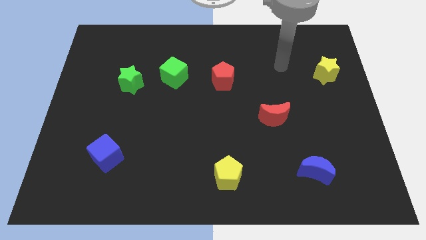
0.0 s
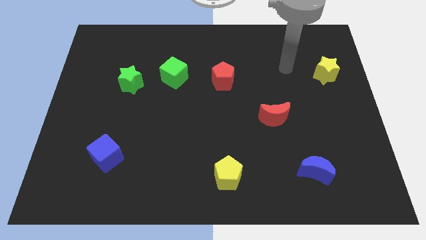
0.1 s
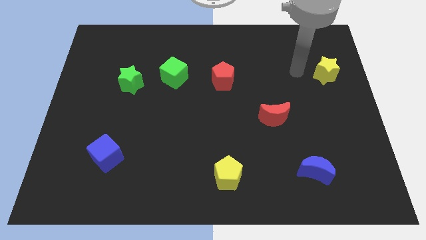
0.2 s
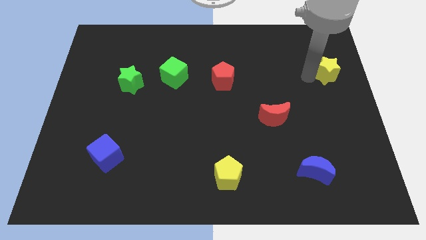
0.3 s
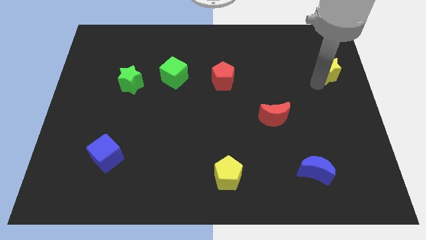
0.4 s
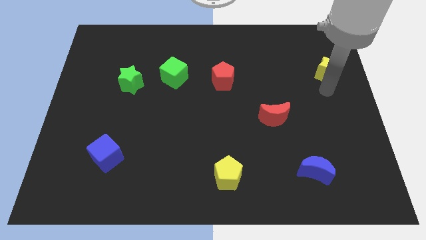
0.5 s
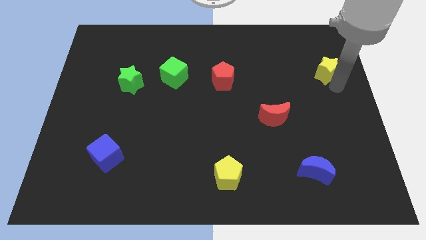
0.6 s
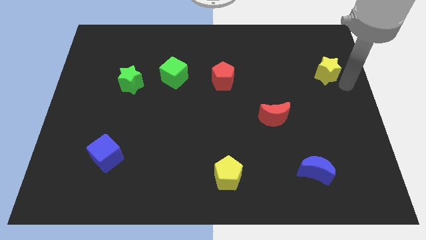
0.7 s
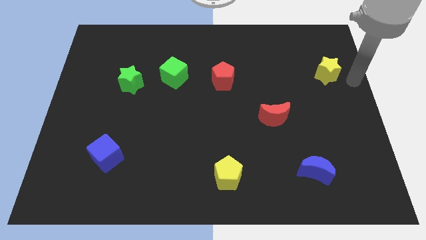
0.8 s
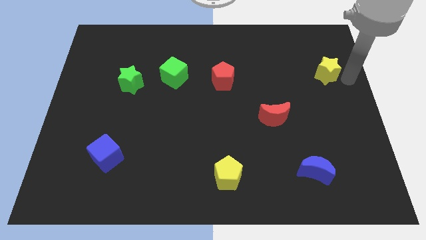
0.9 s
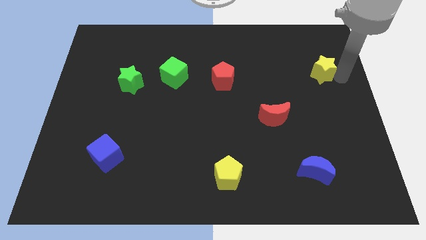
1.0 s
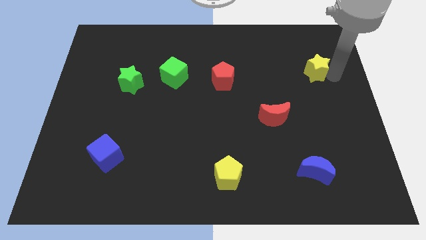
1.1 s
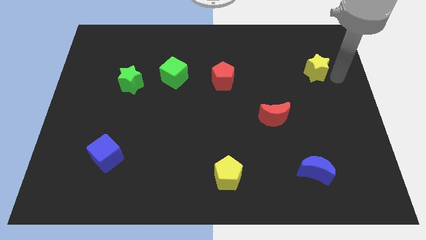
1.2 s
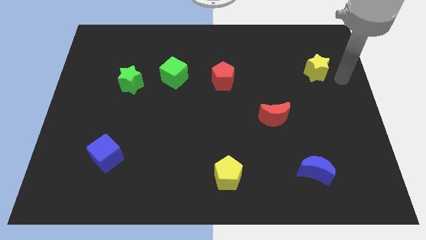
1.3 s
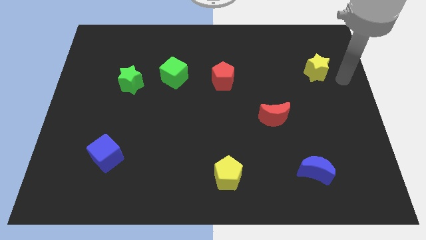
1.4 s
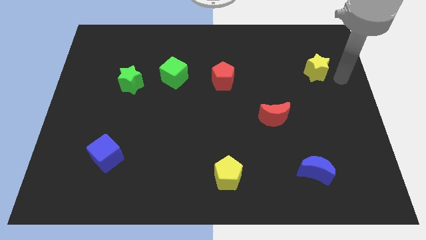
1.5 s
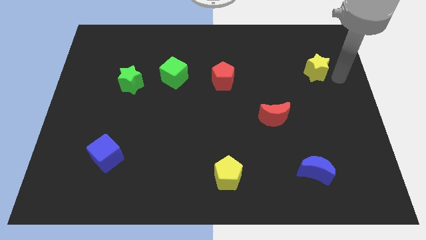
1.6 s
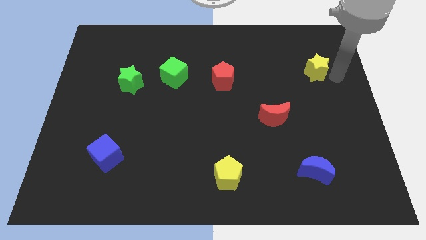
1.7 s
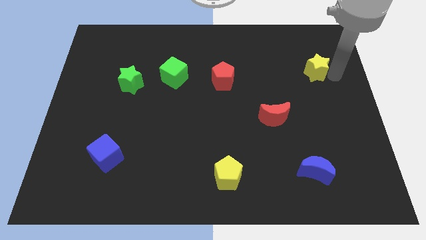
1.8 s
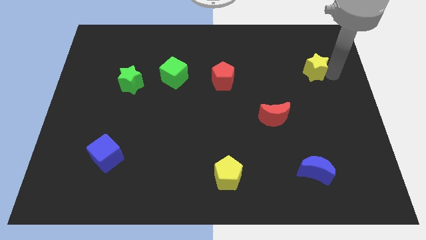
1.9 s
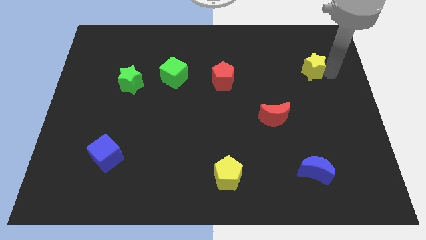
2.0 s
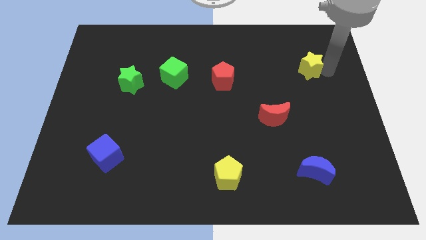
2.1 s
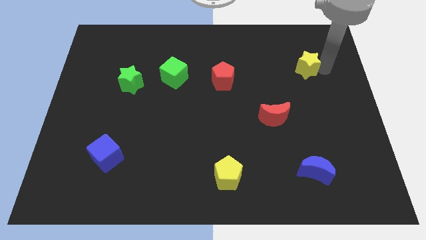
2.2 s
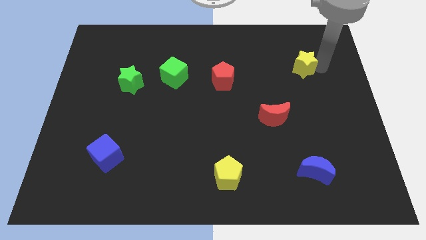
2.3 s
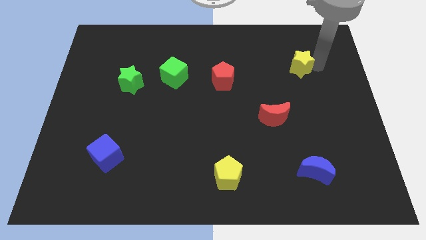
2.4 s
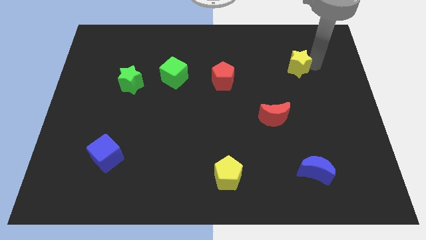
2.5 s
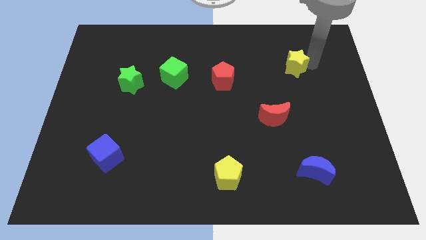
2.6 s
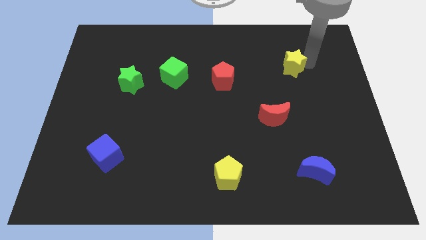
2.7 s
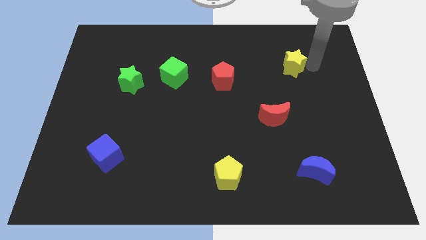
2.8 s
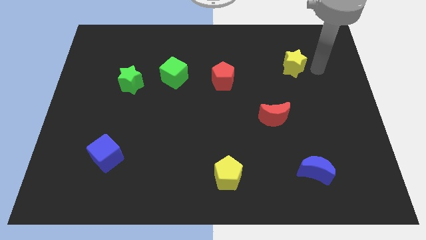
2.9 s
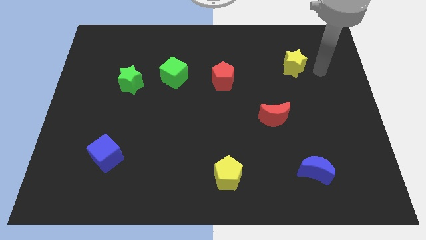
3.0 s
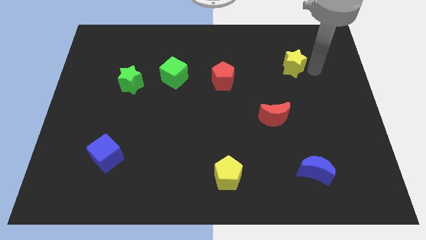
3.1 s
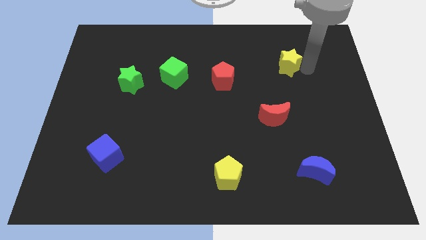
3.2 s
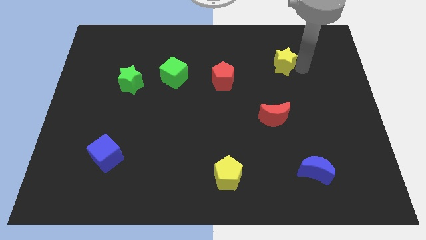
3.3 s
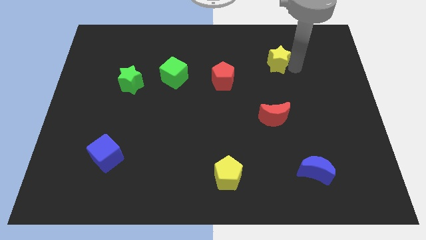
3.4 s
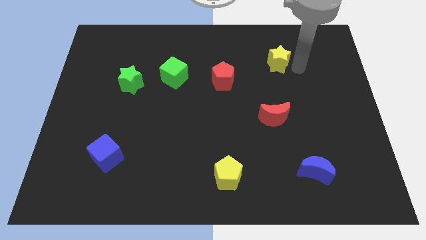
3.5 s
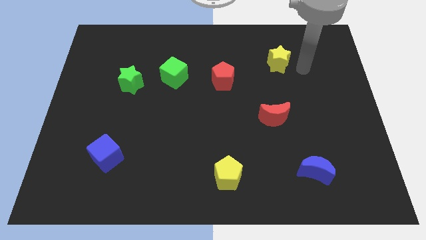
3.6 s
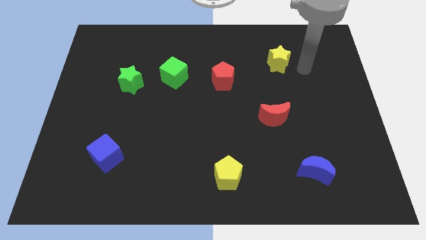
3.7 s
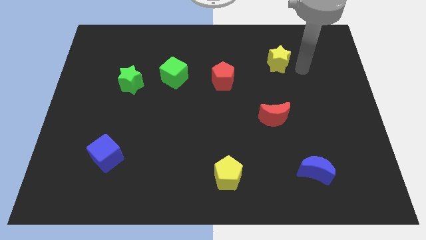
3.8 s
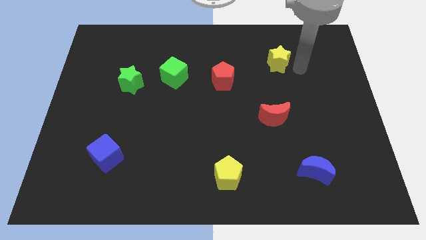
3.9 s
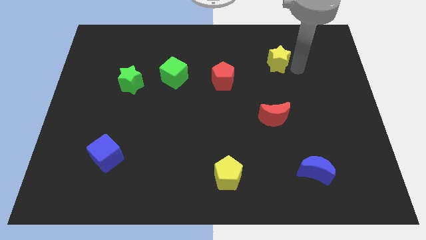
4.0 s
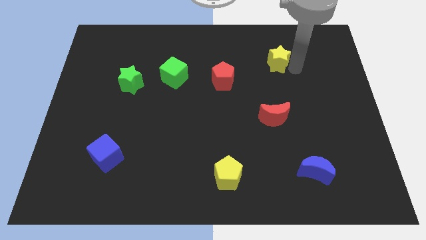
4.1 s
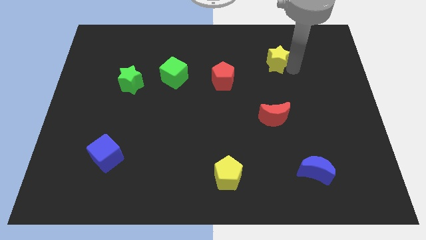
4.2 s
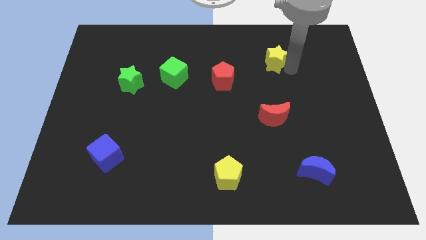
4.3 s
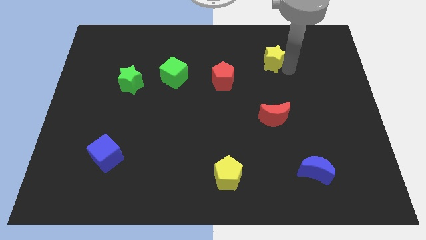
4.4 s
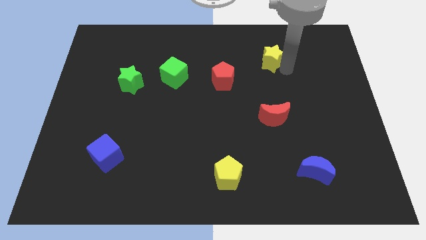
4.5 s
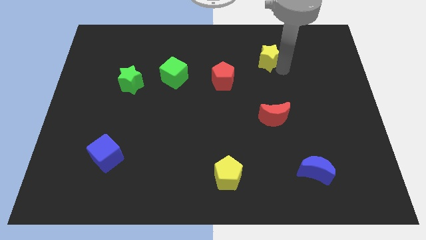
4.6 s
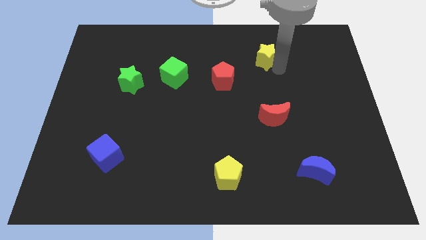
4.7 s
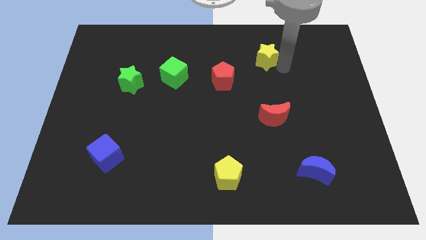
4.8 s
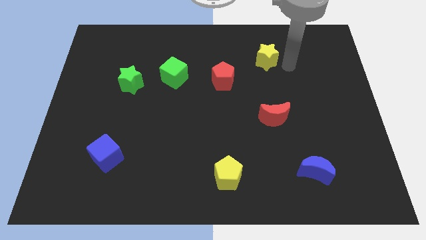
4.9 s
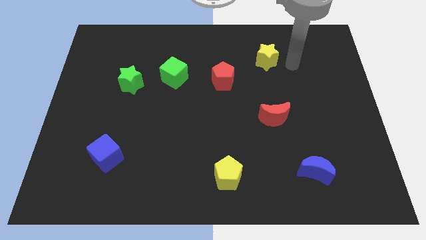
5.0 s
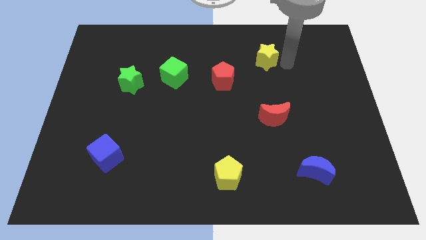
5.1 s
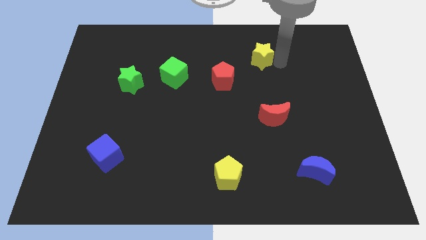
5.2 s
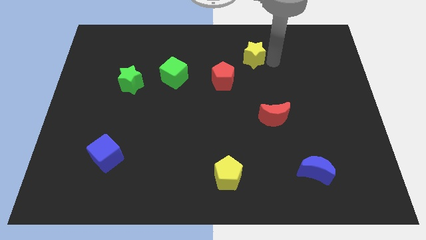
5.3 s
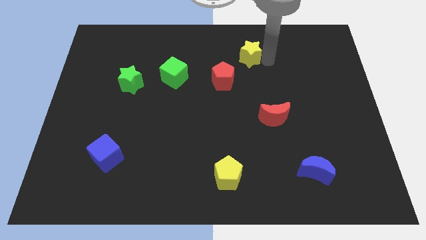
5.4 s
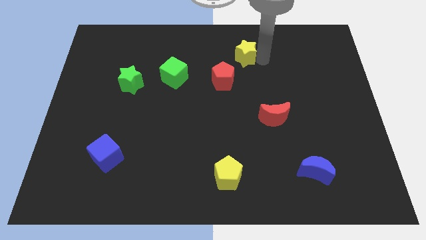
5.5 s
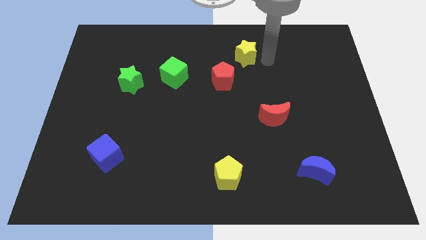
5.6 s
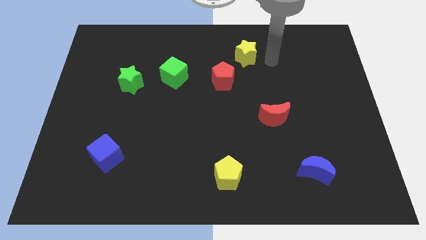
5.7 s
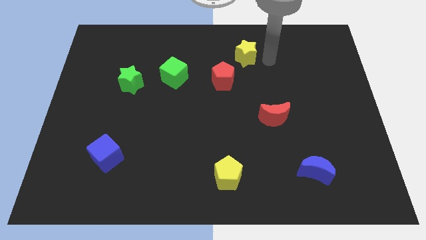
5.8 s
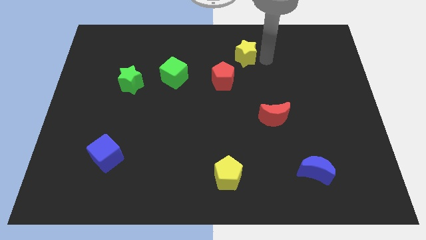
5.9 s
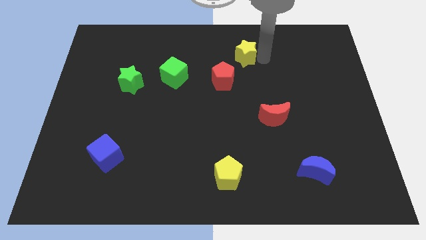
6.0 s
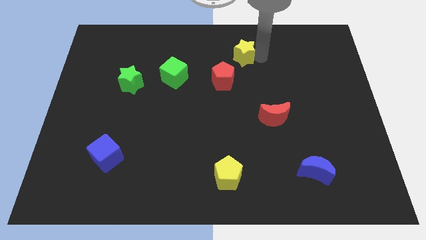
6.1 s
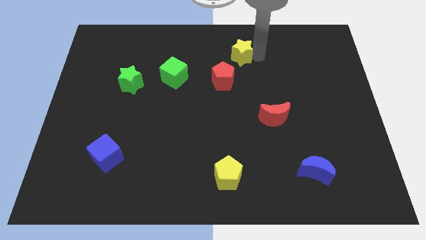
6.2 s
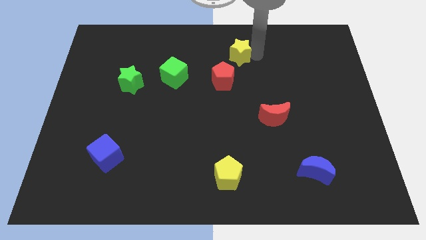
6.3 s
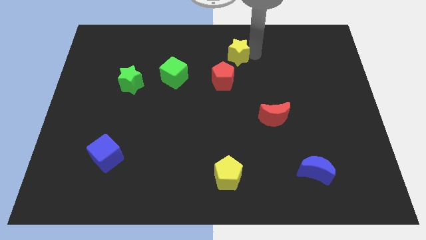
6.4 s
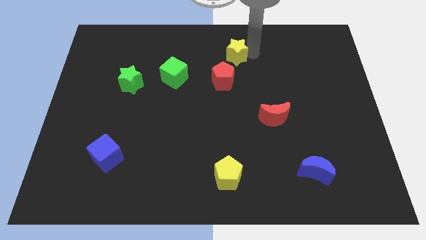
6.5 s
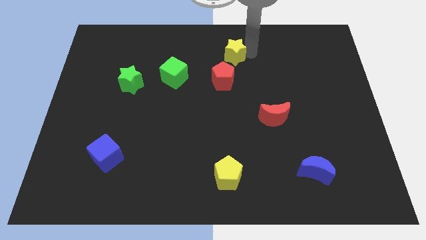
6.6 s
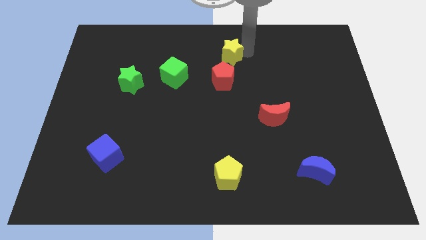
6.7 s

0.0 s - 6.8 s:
slide the yellow star to the towards your base
